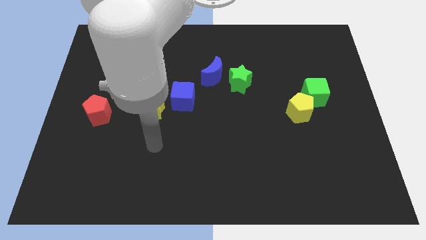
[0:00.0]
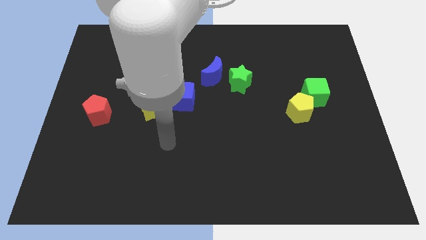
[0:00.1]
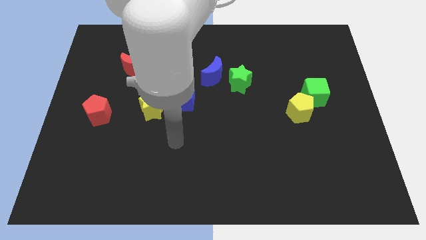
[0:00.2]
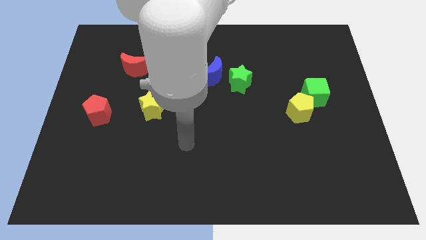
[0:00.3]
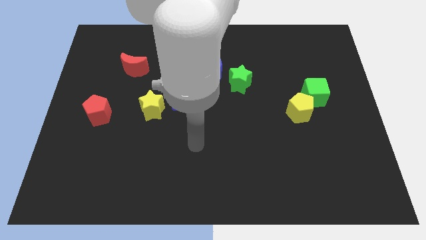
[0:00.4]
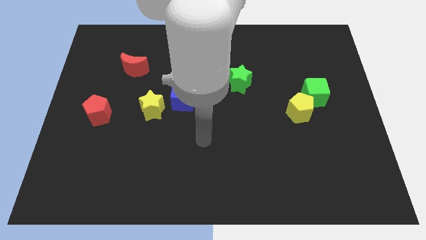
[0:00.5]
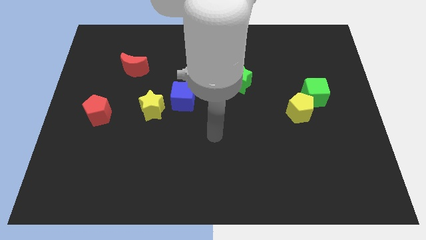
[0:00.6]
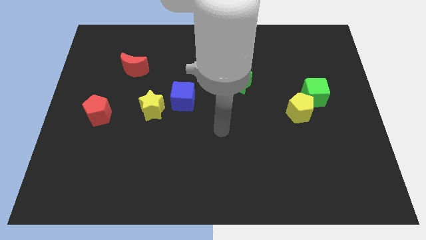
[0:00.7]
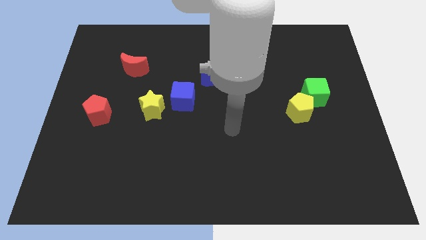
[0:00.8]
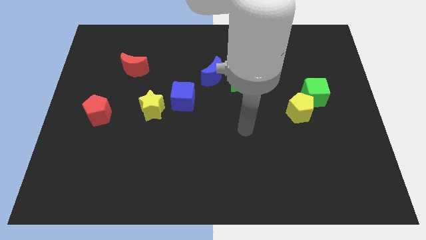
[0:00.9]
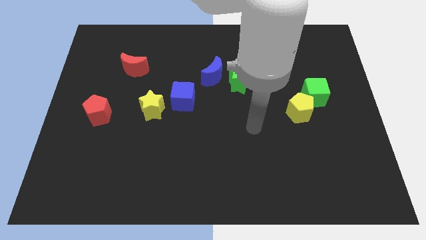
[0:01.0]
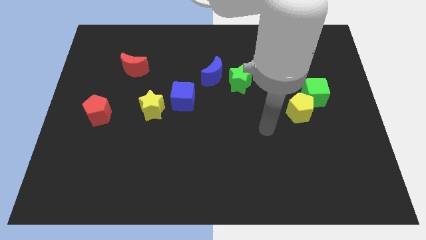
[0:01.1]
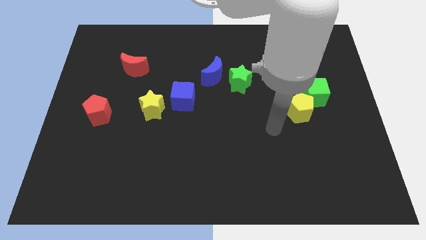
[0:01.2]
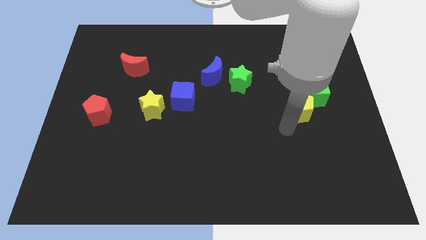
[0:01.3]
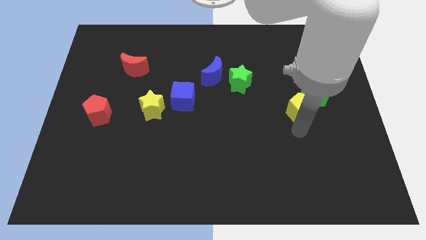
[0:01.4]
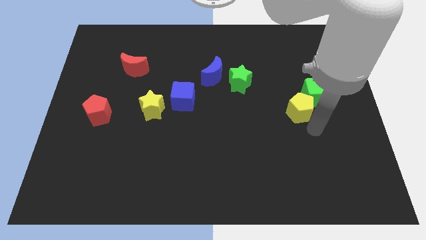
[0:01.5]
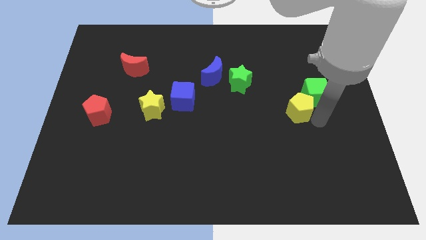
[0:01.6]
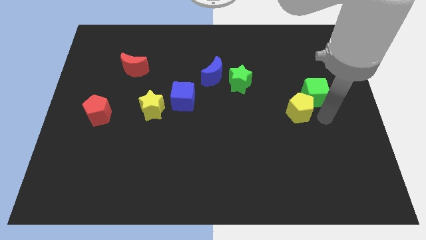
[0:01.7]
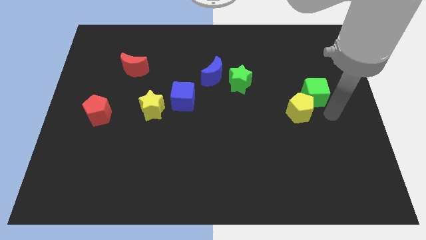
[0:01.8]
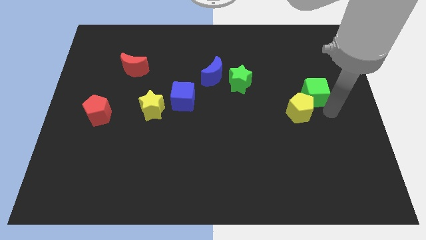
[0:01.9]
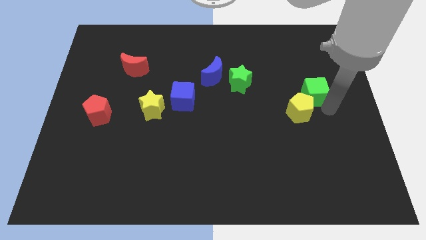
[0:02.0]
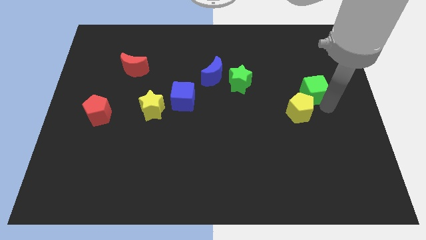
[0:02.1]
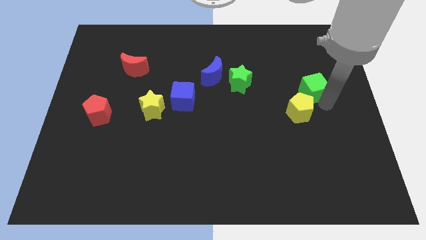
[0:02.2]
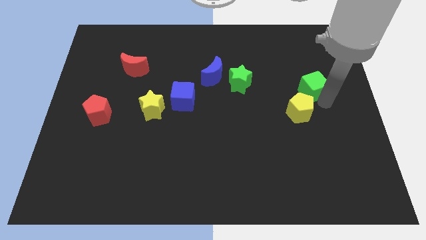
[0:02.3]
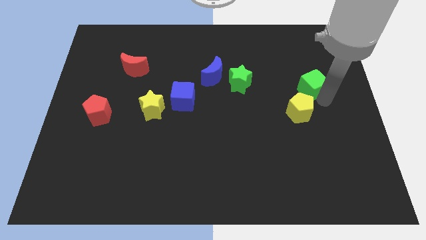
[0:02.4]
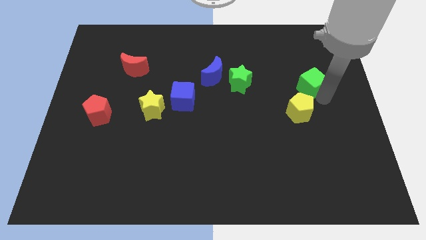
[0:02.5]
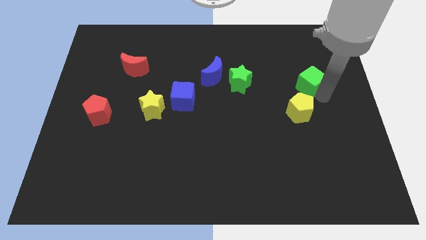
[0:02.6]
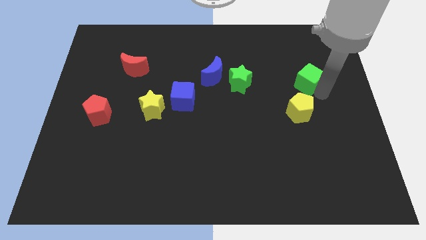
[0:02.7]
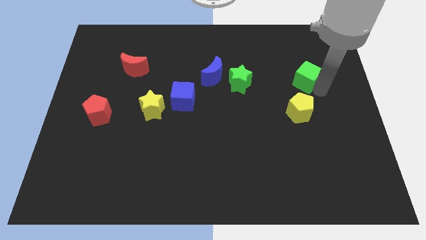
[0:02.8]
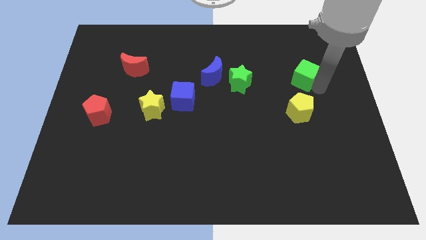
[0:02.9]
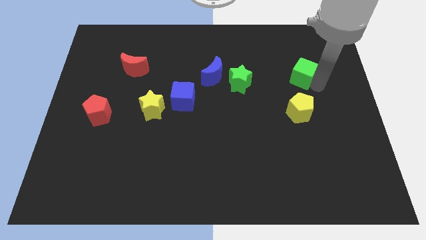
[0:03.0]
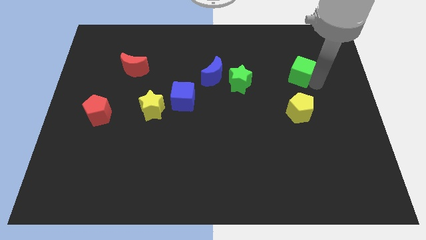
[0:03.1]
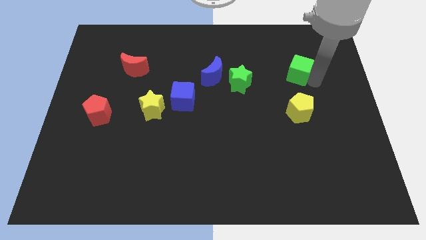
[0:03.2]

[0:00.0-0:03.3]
slide the green cube diagonally upwards and left a little bit

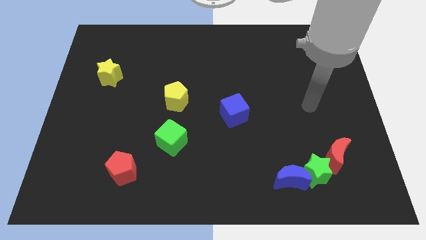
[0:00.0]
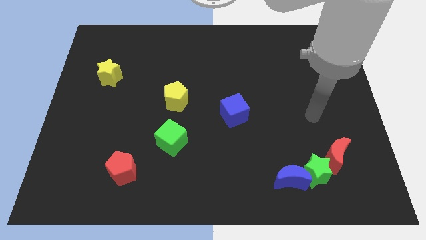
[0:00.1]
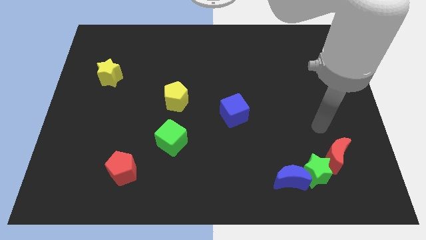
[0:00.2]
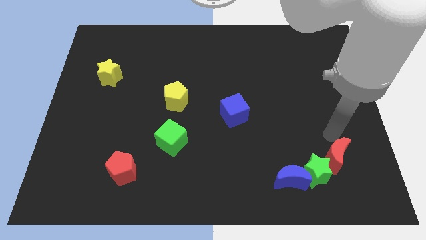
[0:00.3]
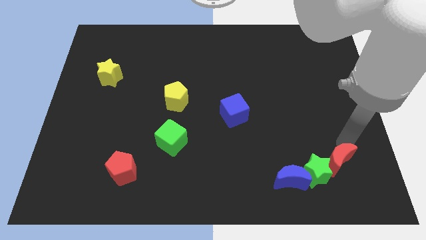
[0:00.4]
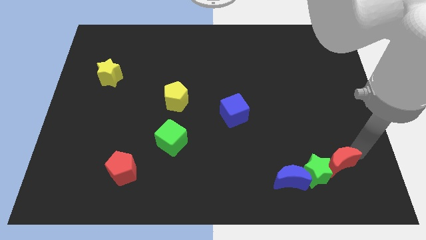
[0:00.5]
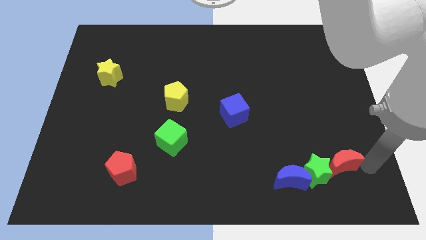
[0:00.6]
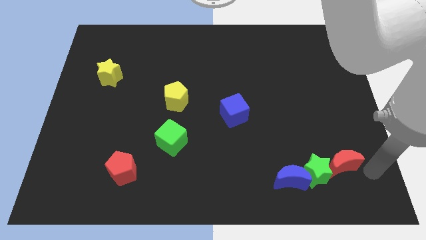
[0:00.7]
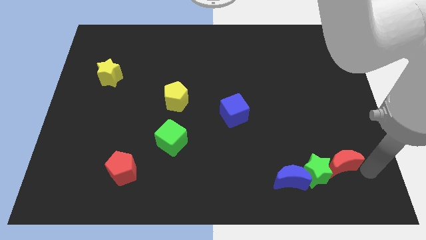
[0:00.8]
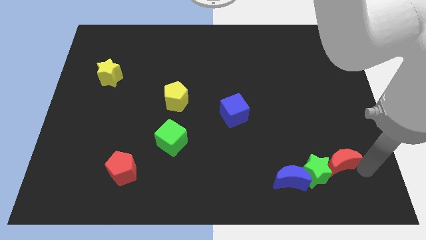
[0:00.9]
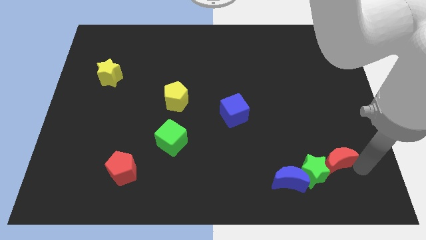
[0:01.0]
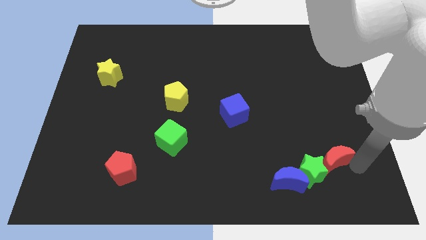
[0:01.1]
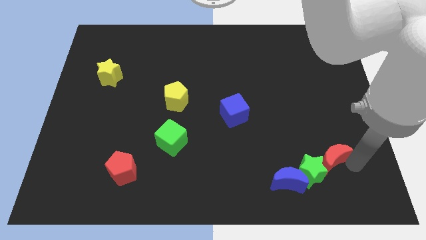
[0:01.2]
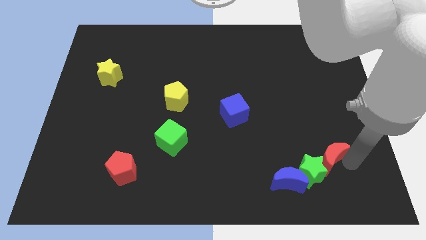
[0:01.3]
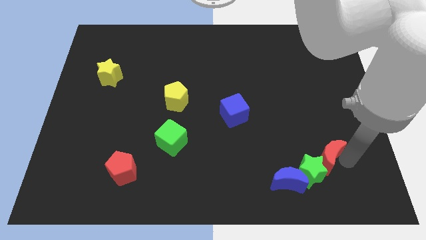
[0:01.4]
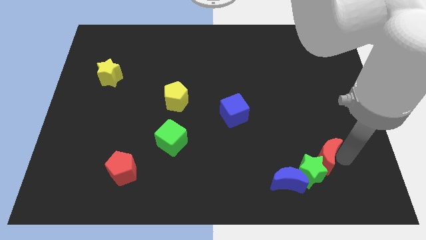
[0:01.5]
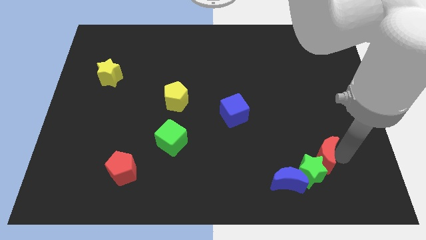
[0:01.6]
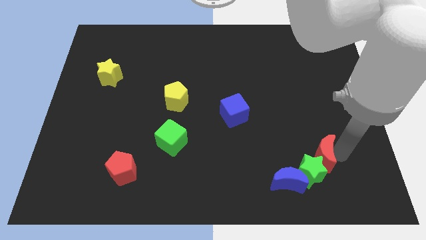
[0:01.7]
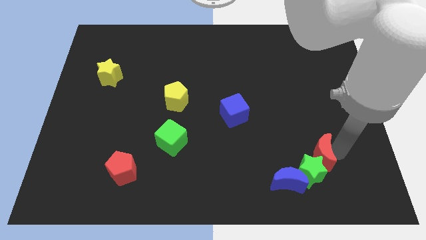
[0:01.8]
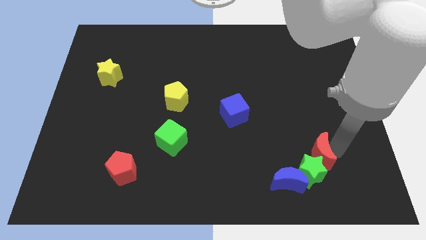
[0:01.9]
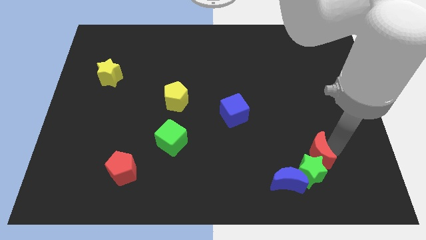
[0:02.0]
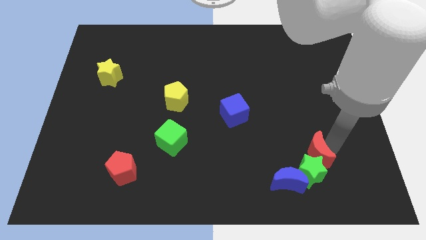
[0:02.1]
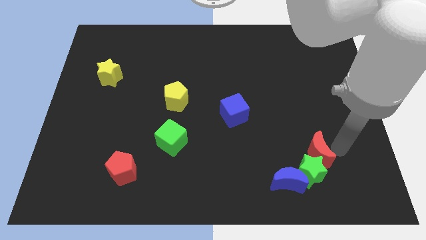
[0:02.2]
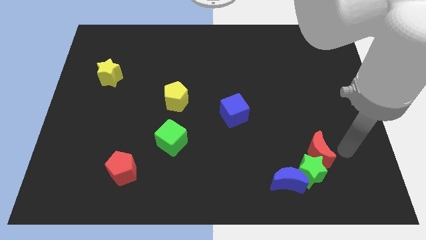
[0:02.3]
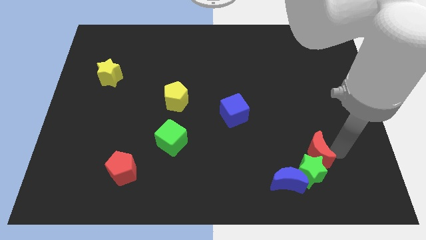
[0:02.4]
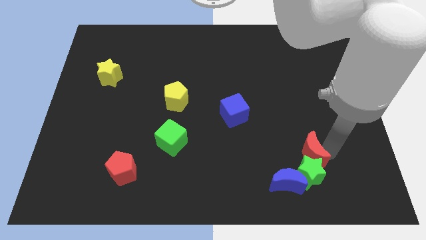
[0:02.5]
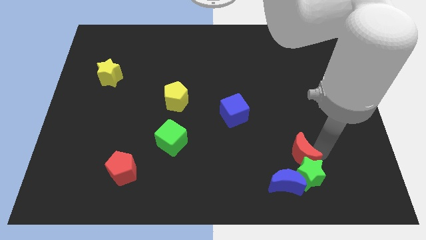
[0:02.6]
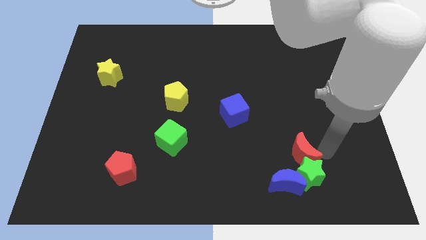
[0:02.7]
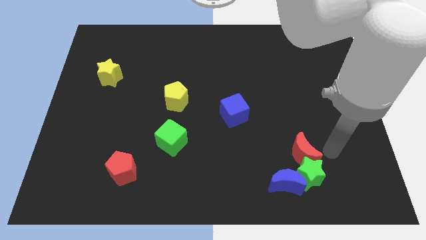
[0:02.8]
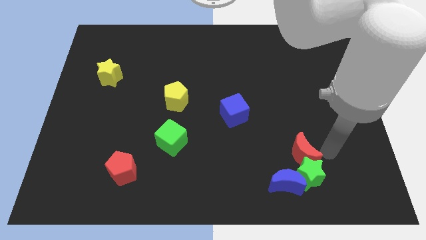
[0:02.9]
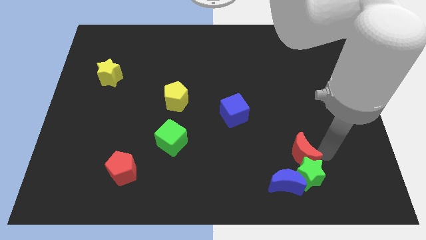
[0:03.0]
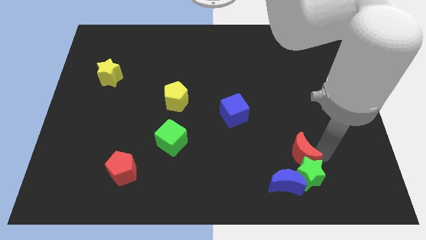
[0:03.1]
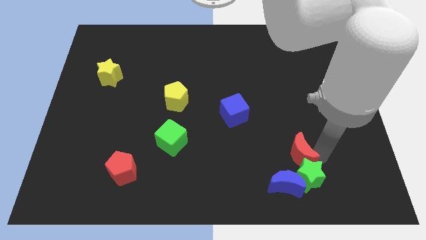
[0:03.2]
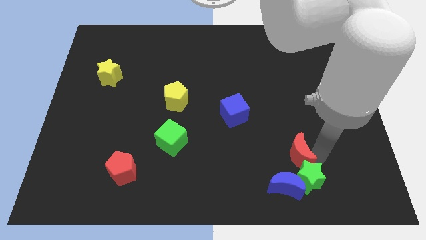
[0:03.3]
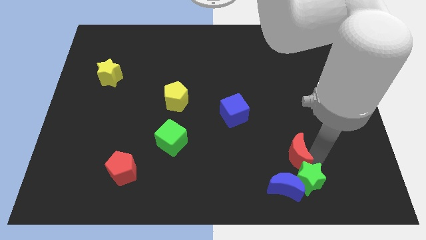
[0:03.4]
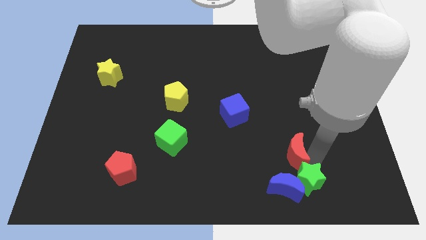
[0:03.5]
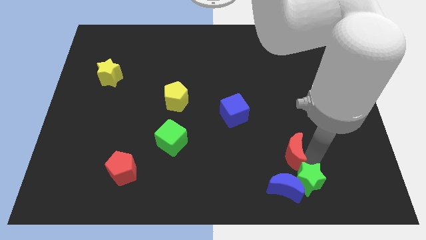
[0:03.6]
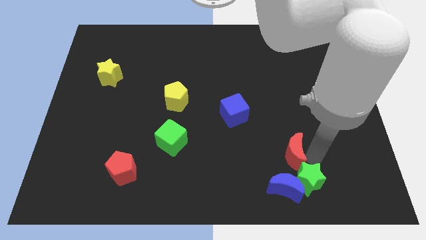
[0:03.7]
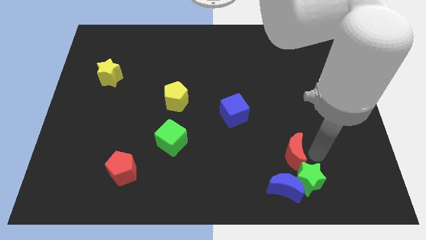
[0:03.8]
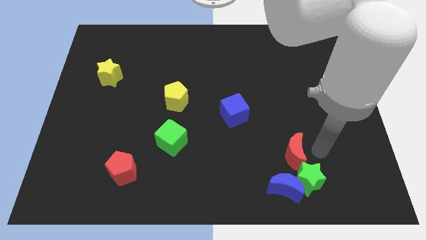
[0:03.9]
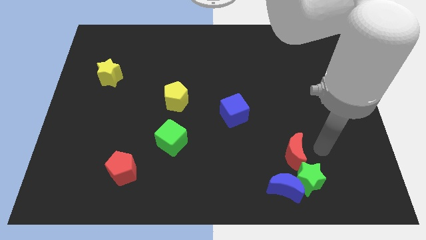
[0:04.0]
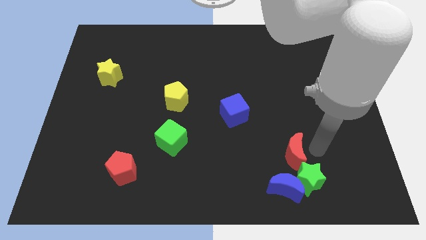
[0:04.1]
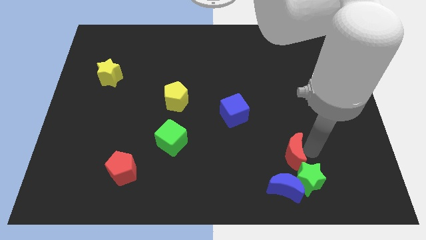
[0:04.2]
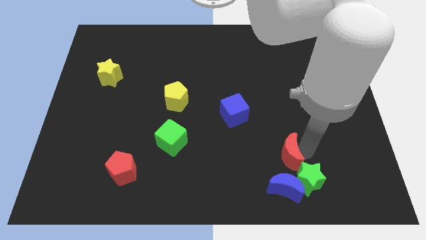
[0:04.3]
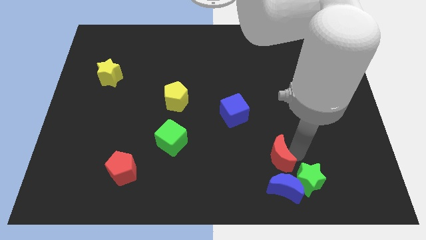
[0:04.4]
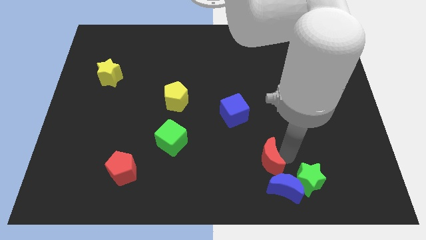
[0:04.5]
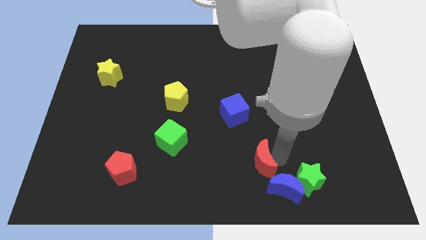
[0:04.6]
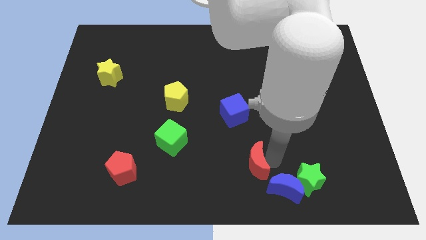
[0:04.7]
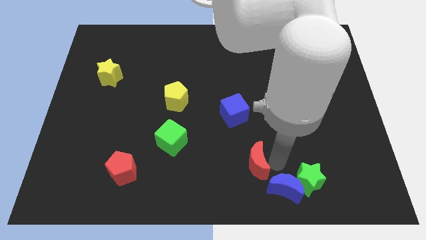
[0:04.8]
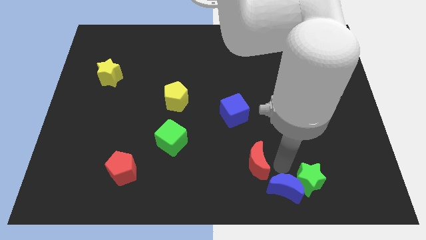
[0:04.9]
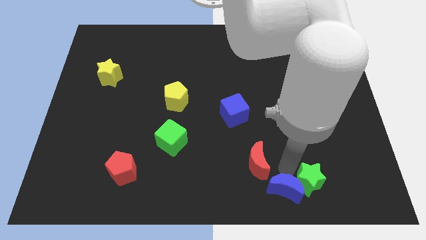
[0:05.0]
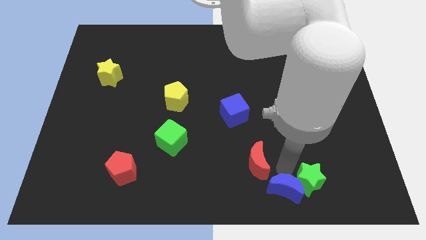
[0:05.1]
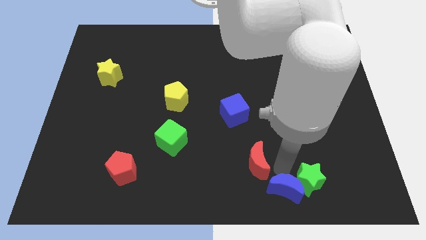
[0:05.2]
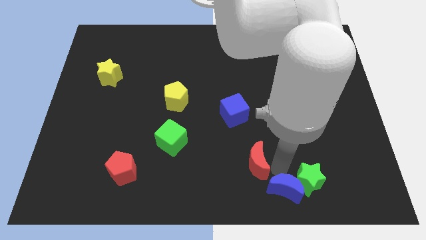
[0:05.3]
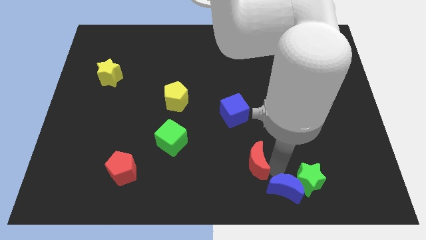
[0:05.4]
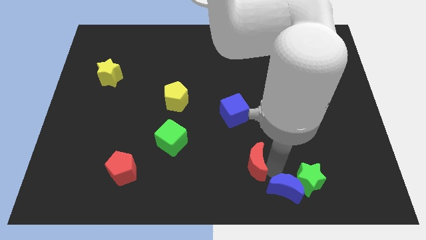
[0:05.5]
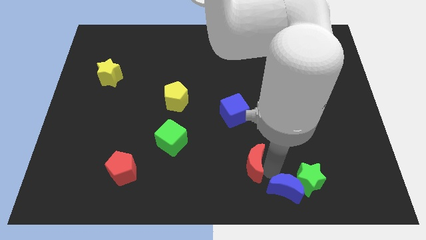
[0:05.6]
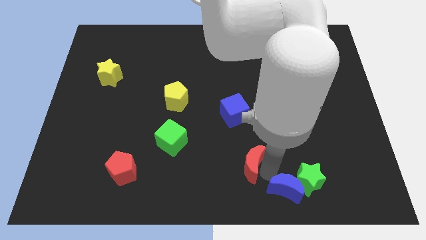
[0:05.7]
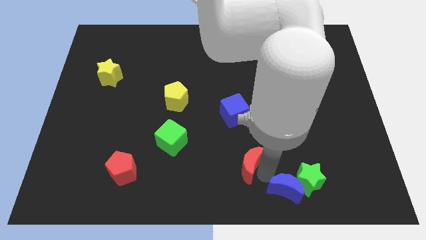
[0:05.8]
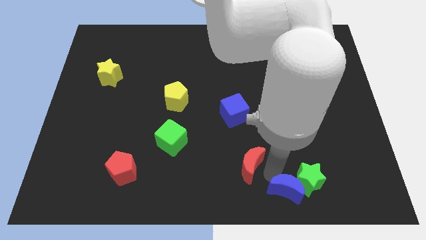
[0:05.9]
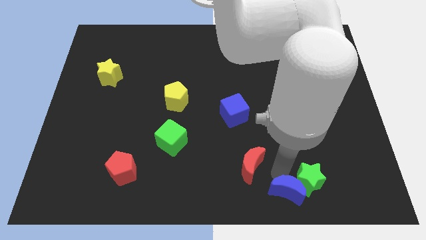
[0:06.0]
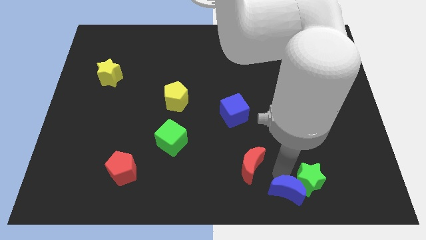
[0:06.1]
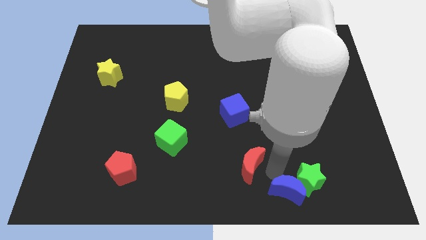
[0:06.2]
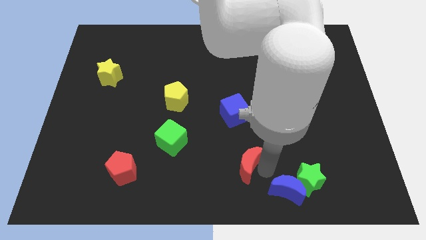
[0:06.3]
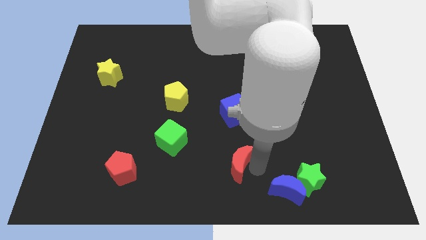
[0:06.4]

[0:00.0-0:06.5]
slide the red moon left
